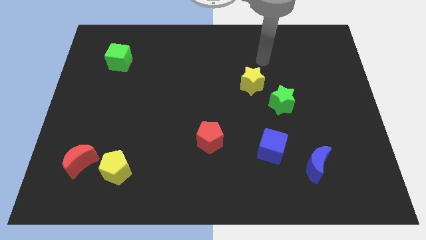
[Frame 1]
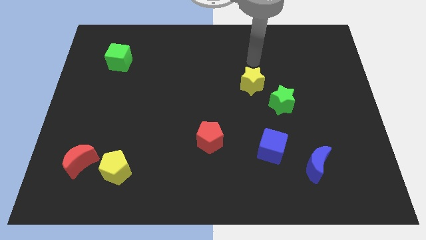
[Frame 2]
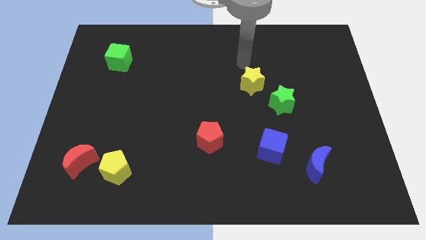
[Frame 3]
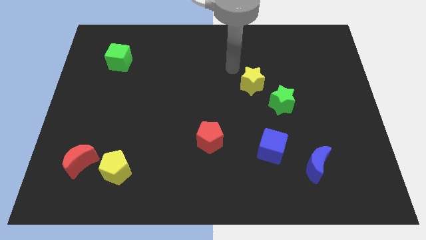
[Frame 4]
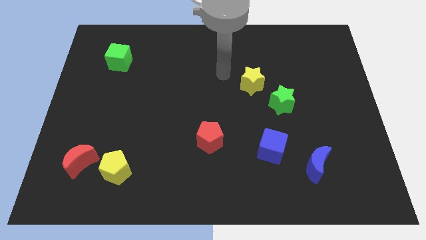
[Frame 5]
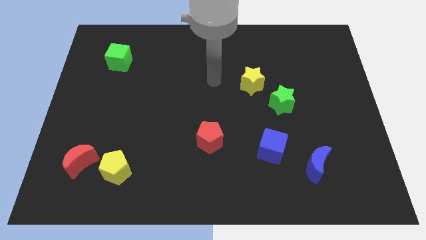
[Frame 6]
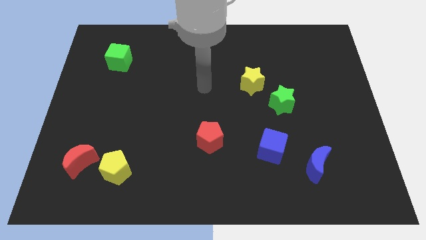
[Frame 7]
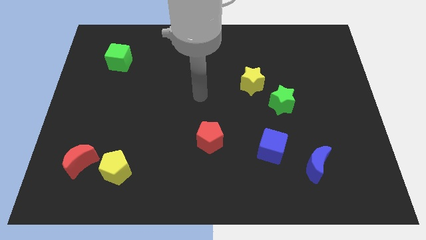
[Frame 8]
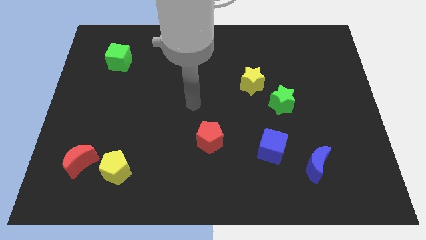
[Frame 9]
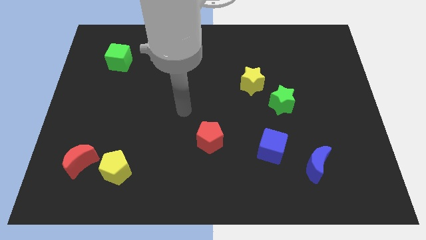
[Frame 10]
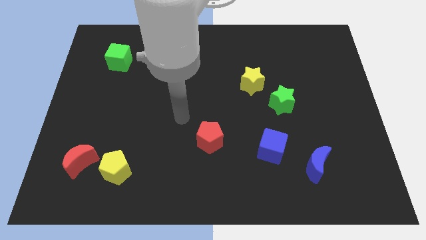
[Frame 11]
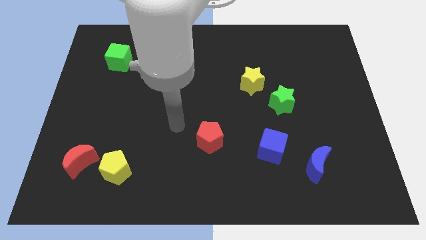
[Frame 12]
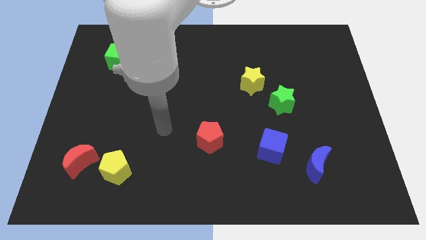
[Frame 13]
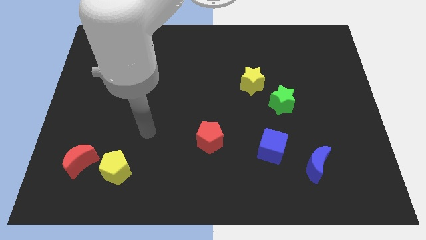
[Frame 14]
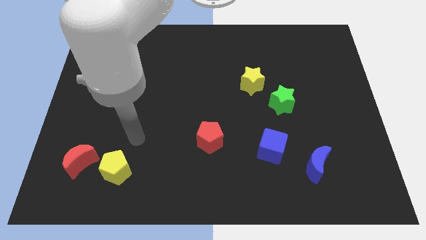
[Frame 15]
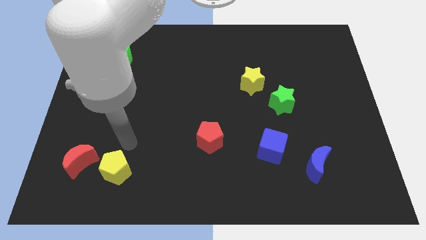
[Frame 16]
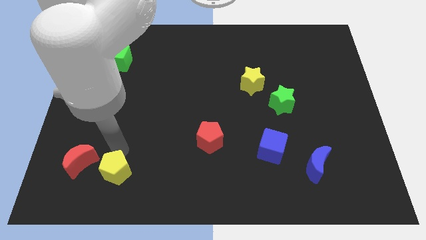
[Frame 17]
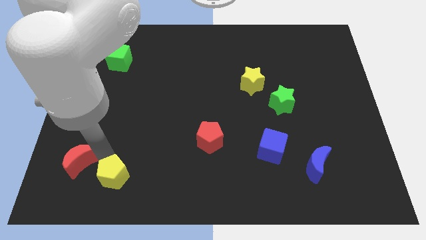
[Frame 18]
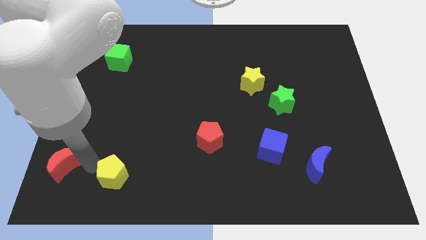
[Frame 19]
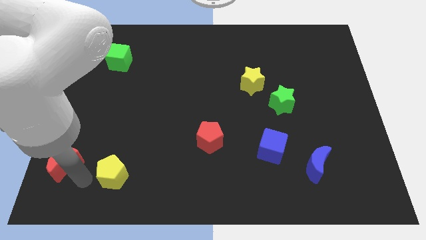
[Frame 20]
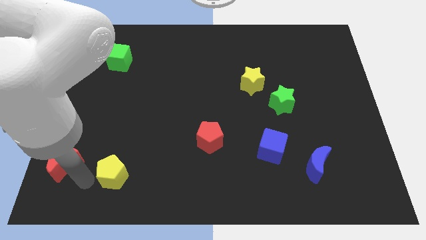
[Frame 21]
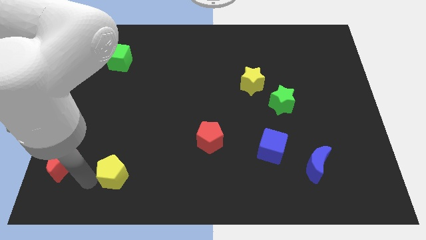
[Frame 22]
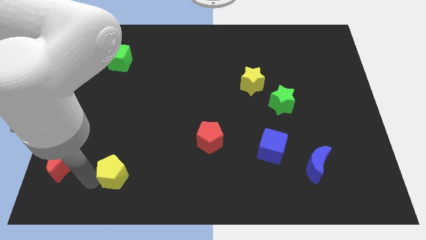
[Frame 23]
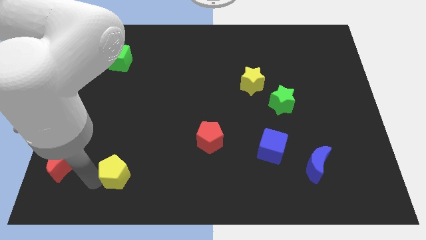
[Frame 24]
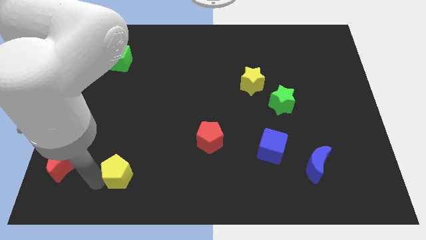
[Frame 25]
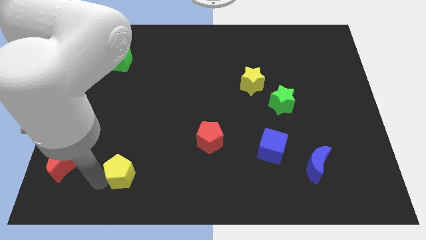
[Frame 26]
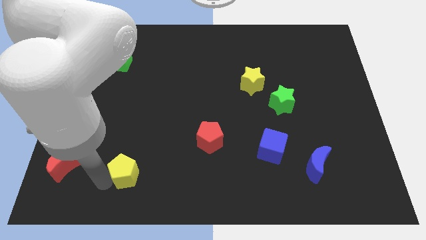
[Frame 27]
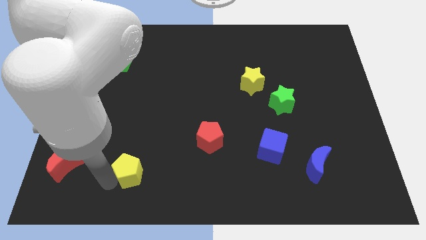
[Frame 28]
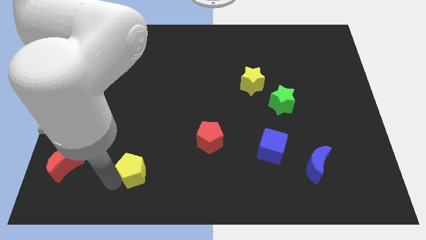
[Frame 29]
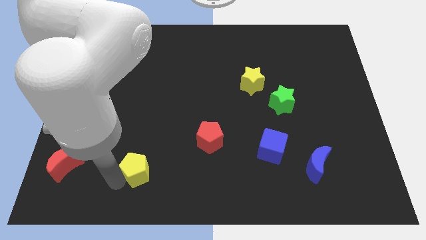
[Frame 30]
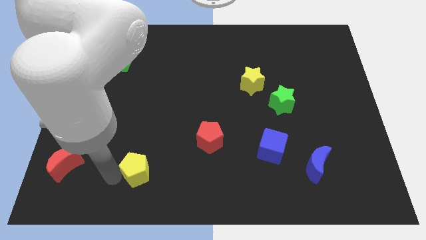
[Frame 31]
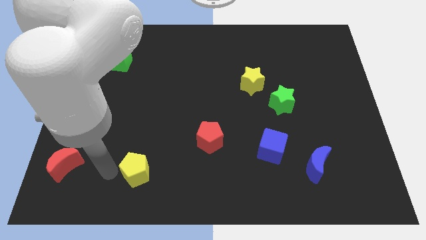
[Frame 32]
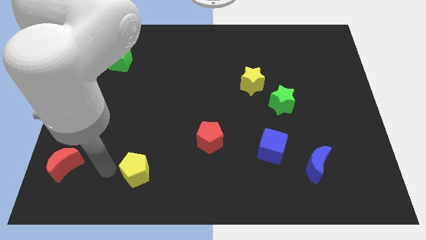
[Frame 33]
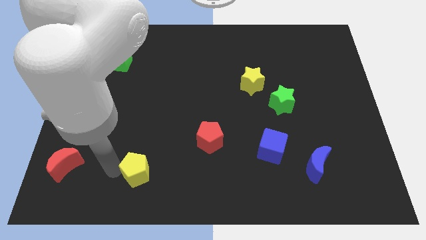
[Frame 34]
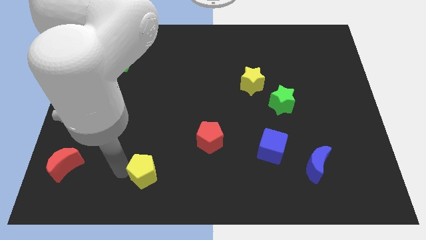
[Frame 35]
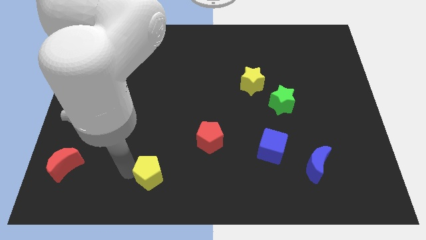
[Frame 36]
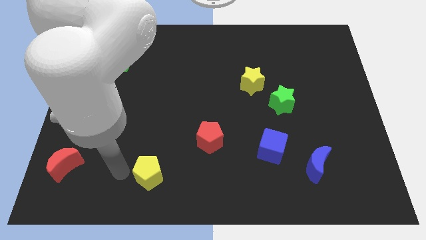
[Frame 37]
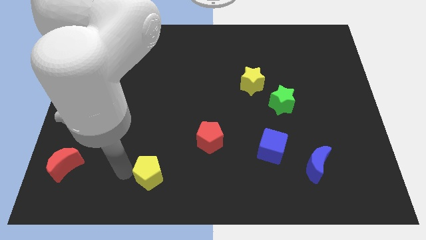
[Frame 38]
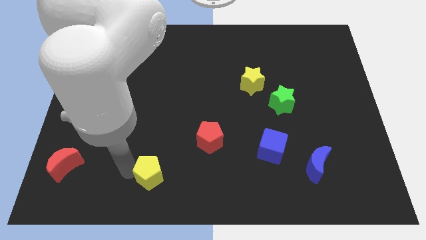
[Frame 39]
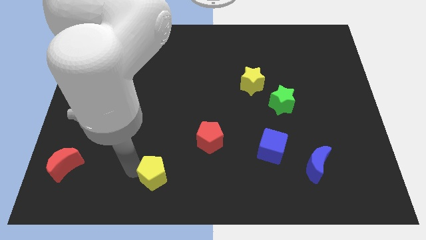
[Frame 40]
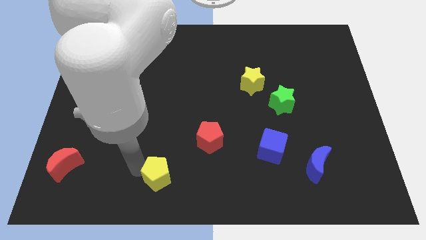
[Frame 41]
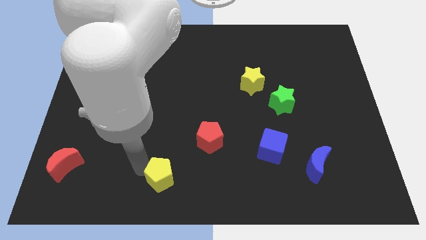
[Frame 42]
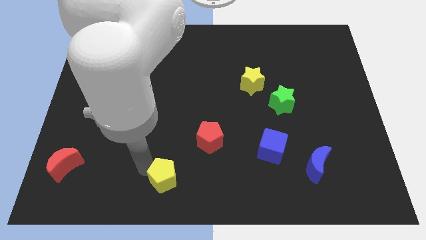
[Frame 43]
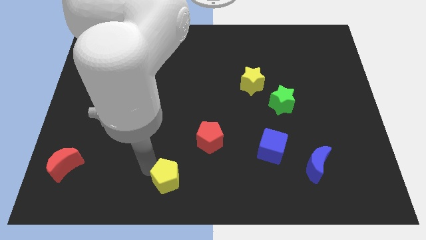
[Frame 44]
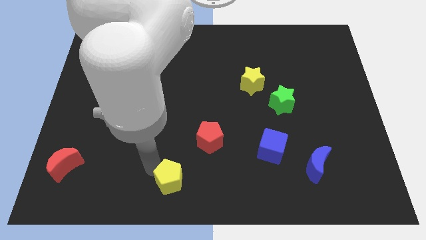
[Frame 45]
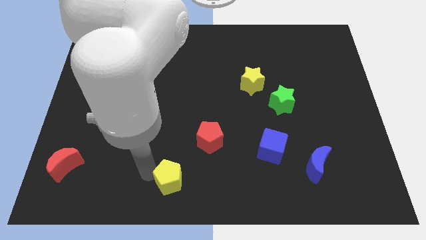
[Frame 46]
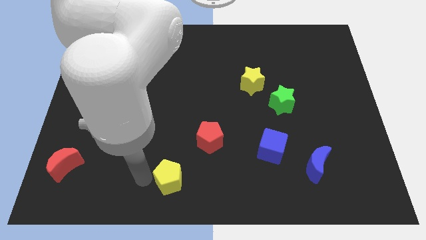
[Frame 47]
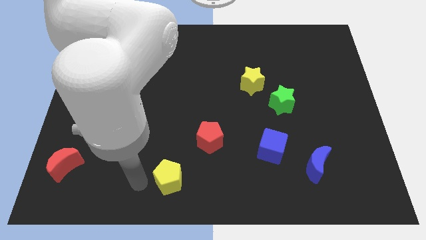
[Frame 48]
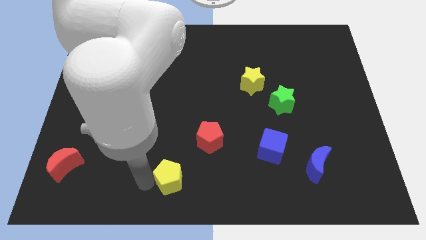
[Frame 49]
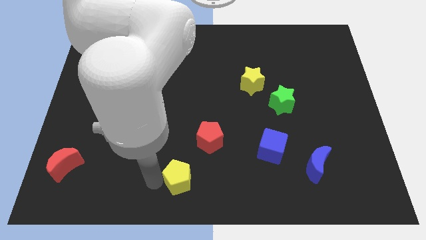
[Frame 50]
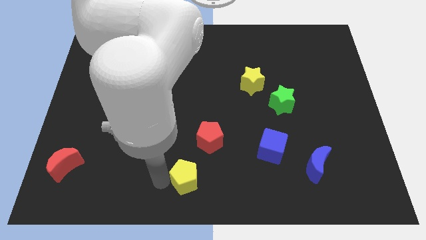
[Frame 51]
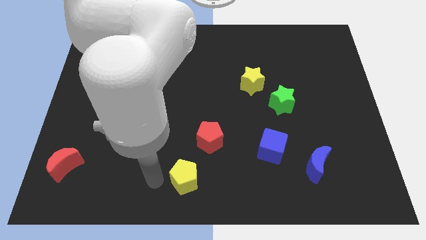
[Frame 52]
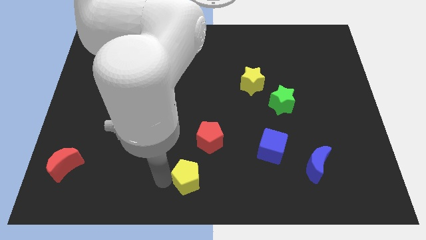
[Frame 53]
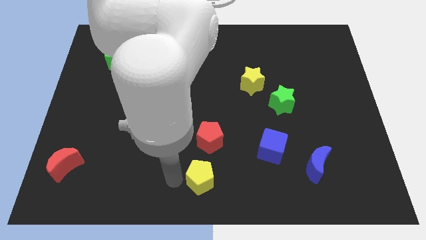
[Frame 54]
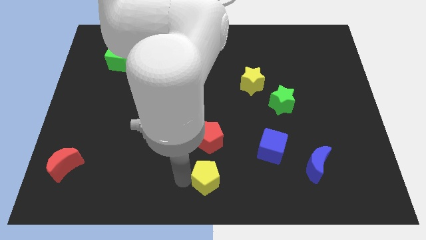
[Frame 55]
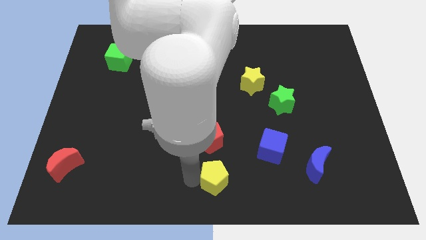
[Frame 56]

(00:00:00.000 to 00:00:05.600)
slide the yellow pentagon to the right

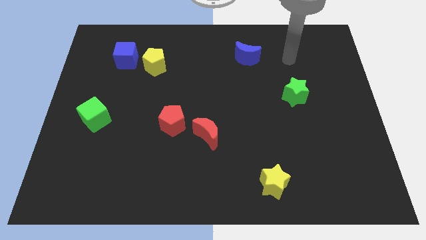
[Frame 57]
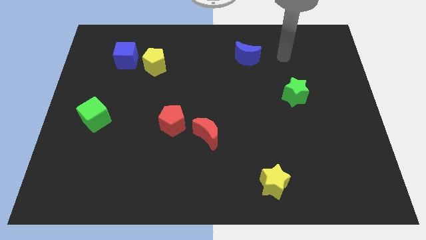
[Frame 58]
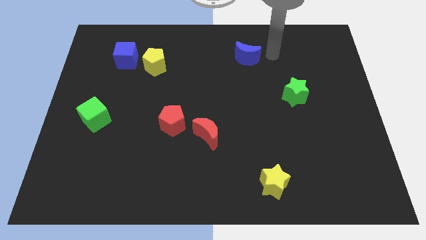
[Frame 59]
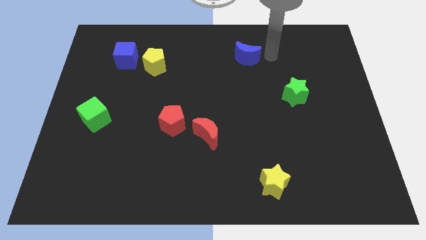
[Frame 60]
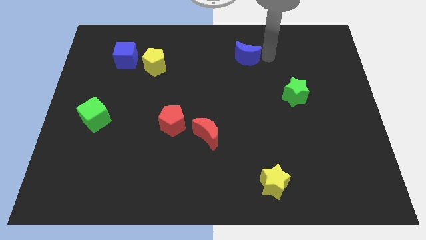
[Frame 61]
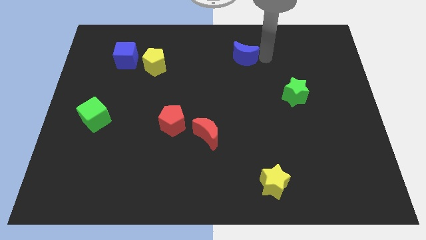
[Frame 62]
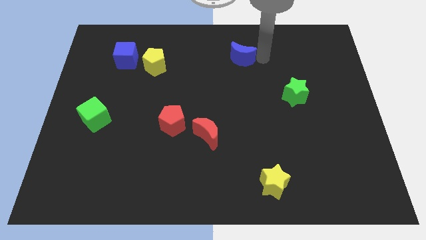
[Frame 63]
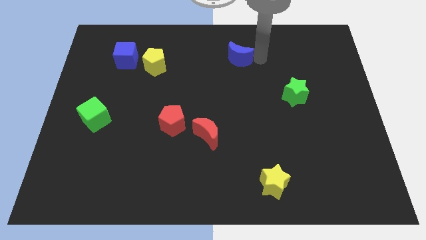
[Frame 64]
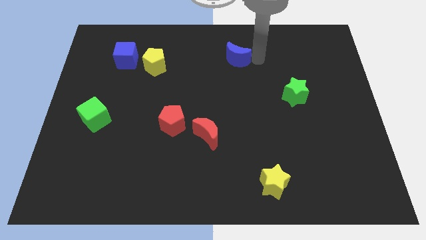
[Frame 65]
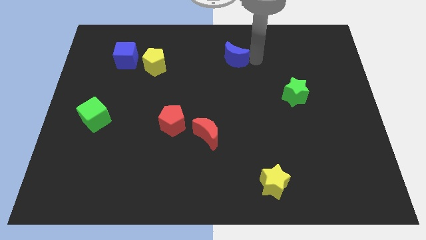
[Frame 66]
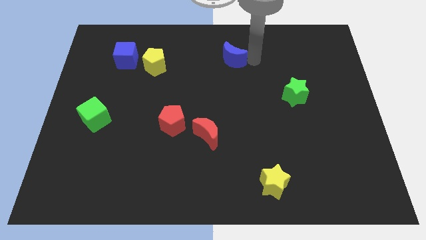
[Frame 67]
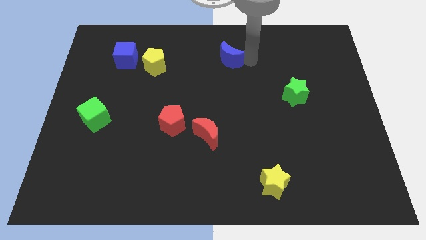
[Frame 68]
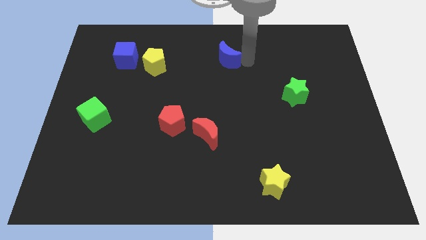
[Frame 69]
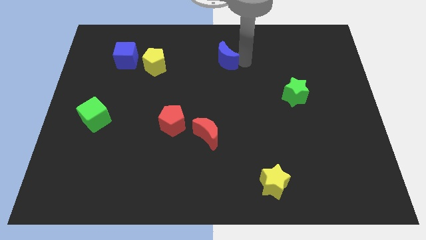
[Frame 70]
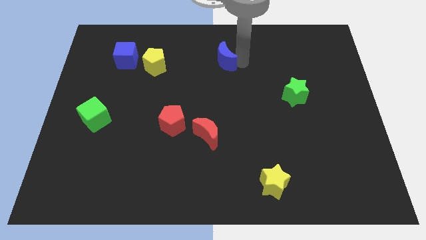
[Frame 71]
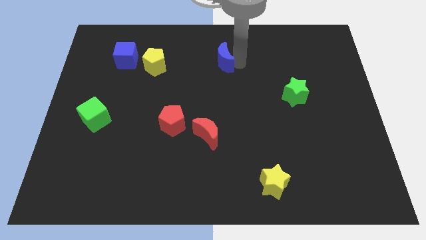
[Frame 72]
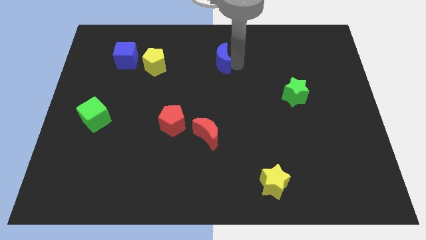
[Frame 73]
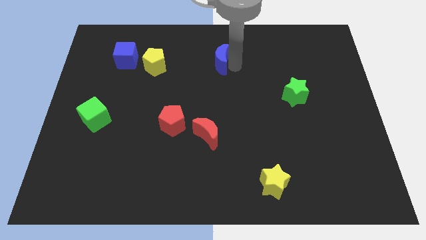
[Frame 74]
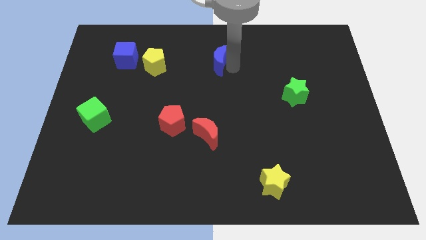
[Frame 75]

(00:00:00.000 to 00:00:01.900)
push the blue moon slightly to the left
